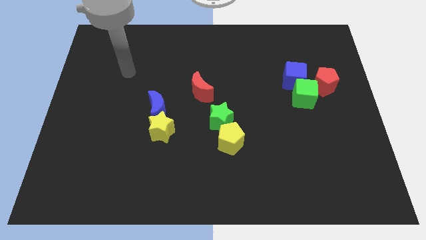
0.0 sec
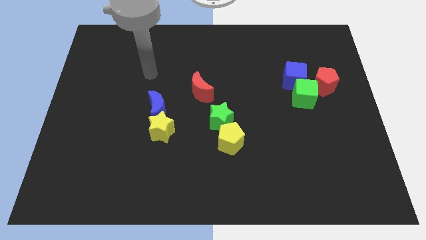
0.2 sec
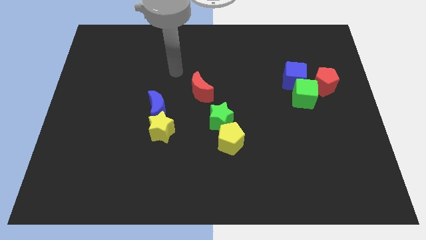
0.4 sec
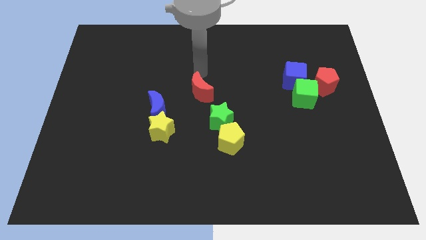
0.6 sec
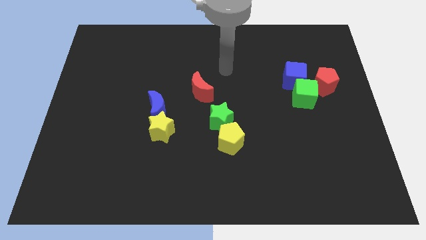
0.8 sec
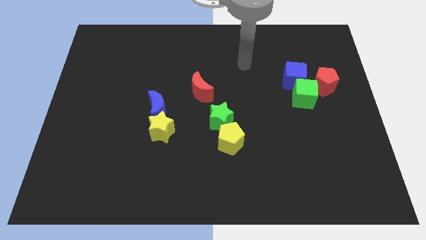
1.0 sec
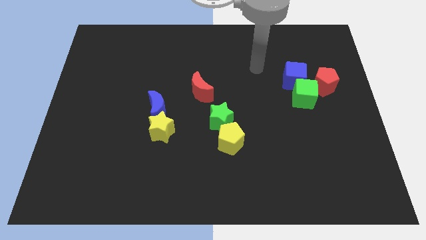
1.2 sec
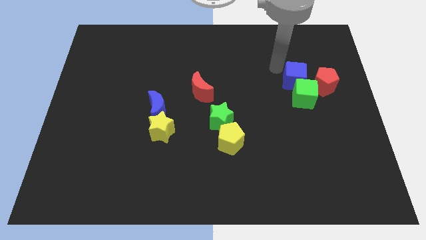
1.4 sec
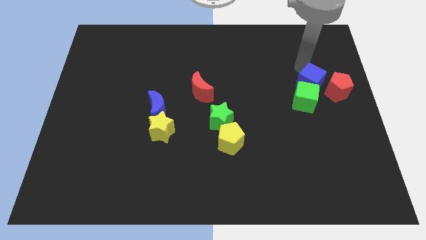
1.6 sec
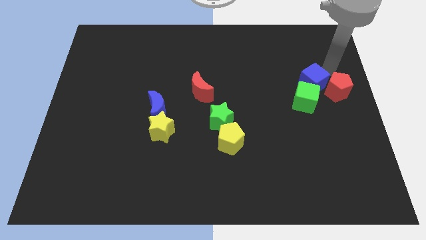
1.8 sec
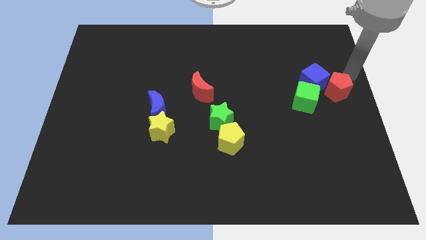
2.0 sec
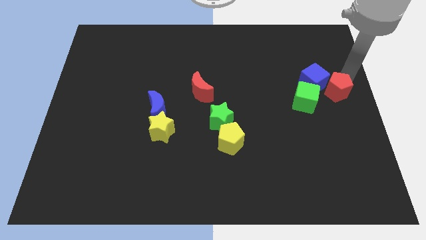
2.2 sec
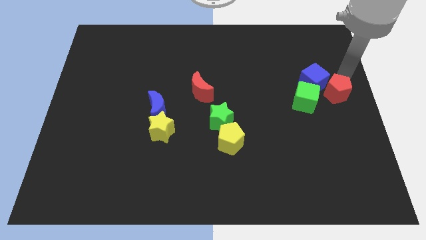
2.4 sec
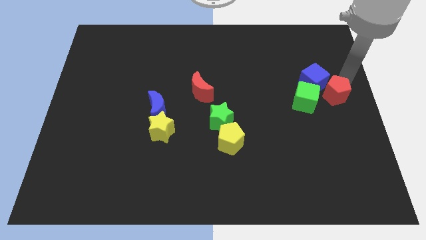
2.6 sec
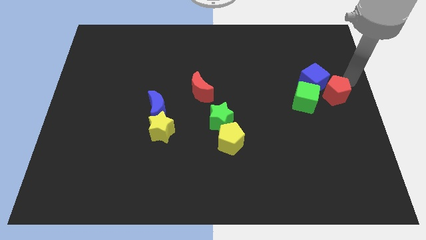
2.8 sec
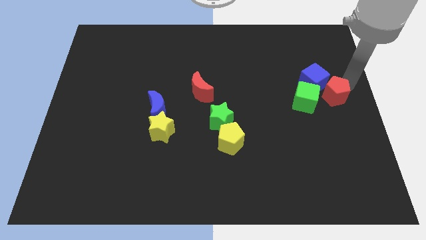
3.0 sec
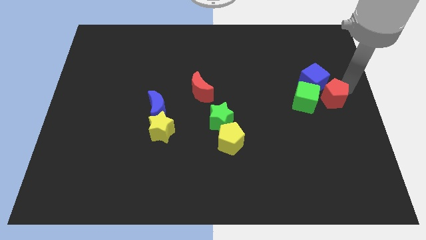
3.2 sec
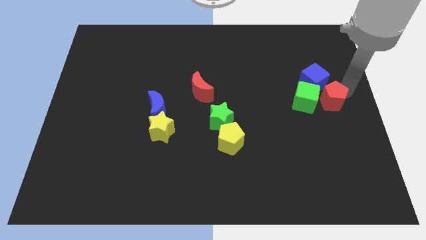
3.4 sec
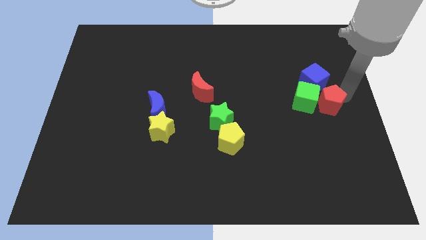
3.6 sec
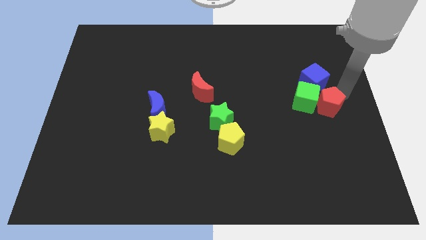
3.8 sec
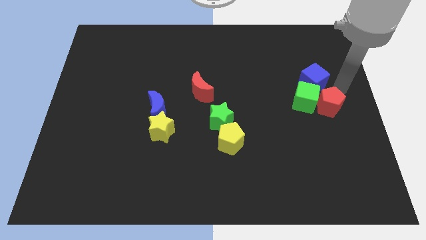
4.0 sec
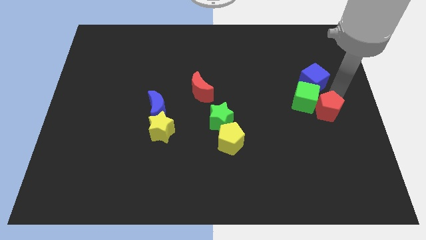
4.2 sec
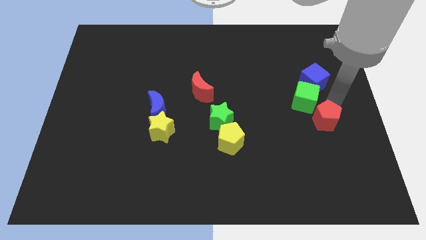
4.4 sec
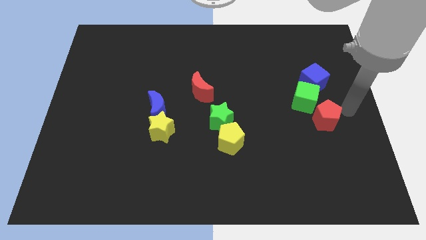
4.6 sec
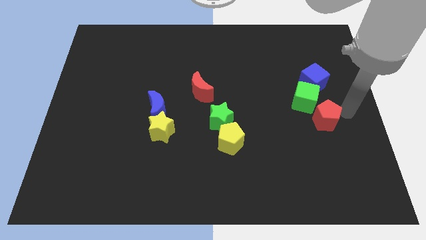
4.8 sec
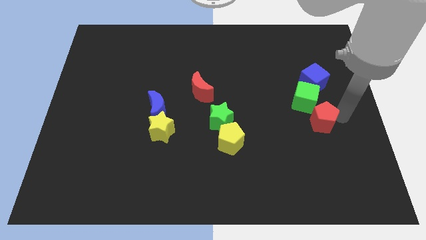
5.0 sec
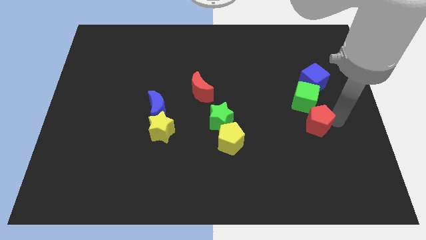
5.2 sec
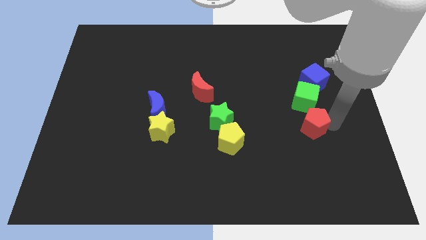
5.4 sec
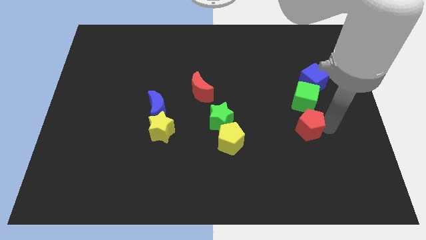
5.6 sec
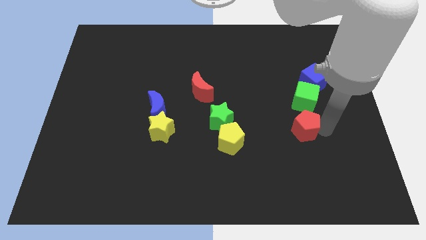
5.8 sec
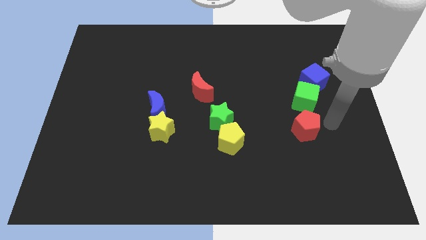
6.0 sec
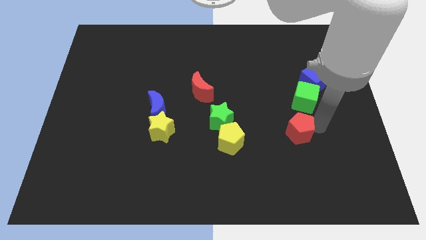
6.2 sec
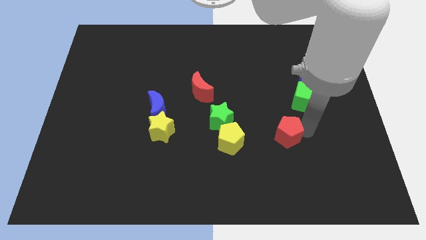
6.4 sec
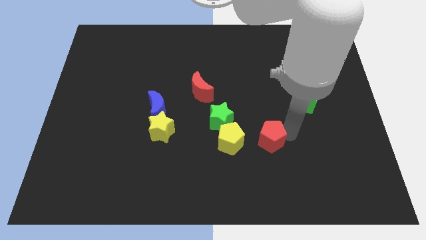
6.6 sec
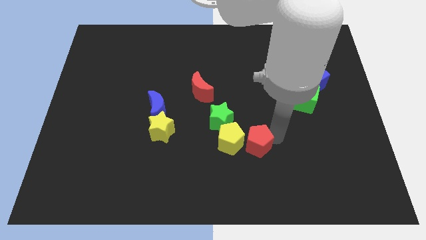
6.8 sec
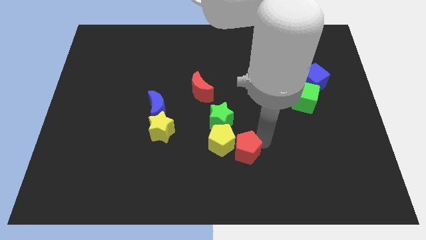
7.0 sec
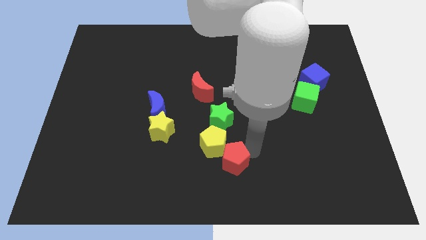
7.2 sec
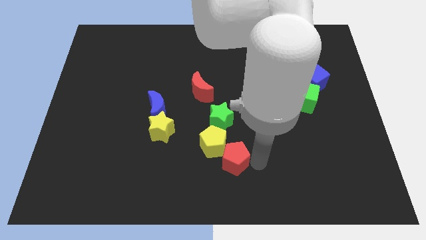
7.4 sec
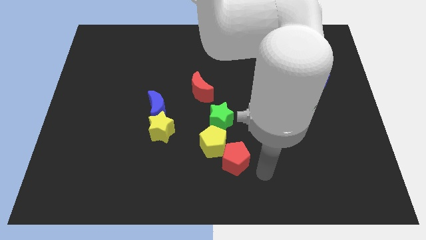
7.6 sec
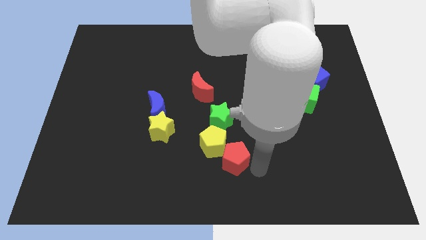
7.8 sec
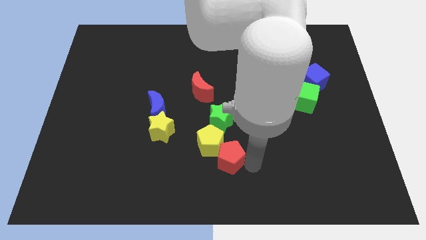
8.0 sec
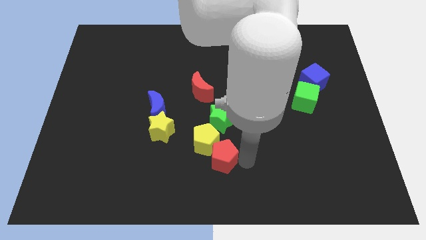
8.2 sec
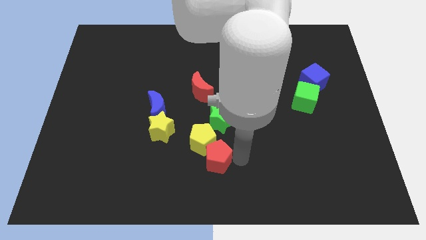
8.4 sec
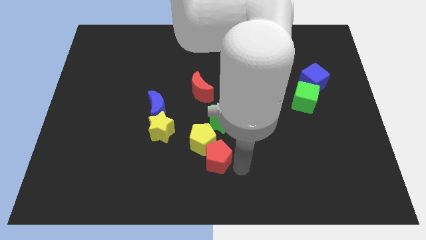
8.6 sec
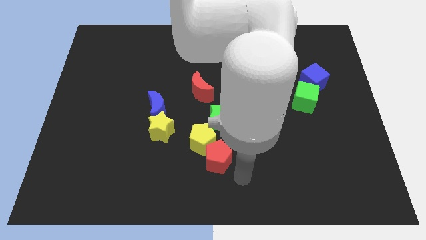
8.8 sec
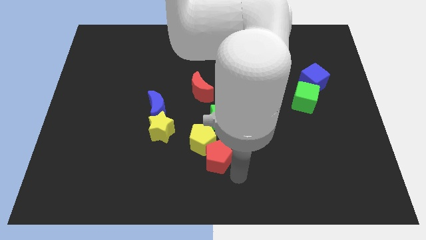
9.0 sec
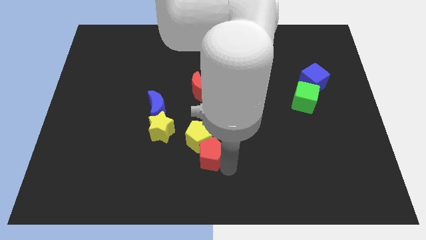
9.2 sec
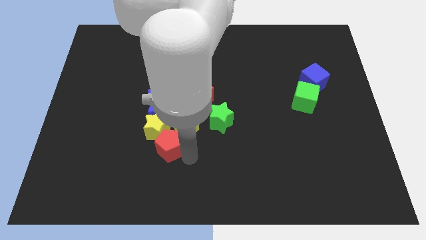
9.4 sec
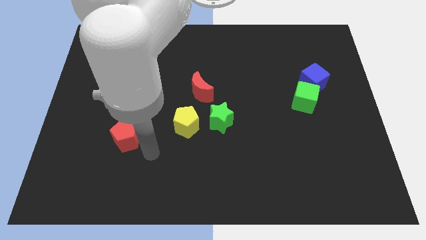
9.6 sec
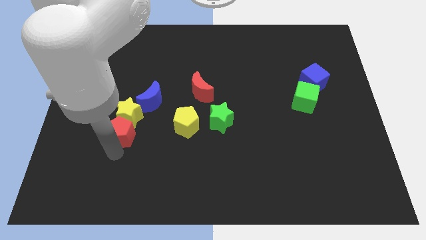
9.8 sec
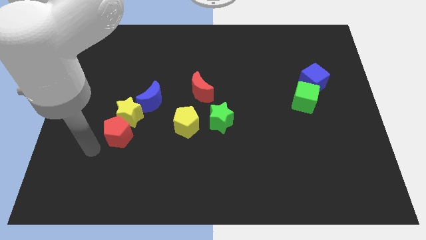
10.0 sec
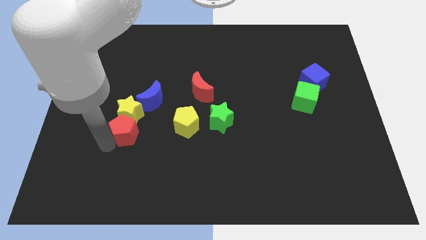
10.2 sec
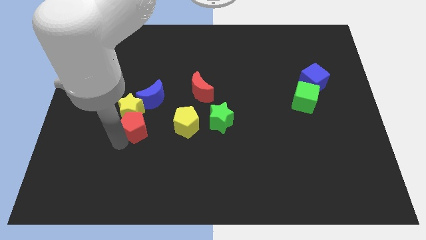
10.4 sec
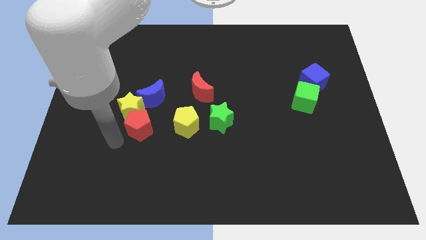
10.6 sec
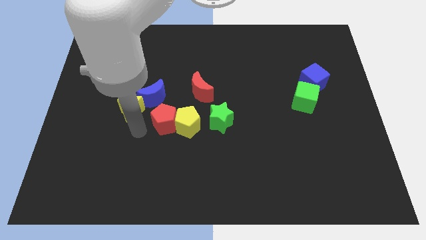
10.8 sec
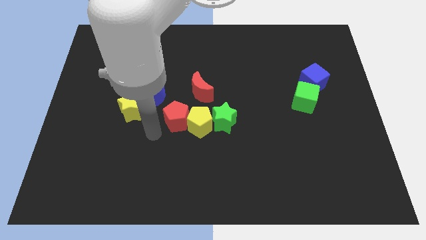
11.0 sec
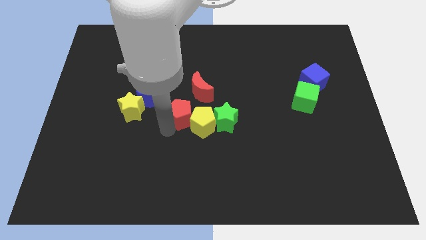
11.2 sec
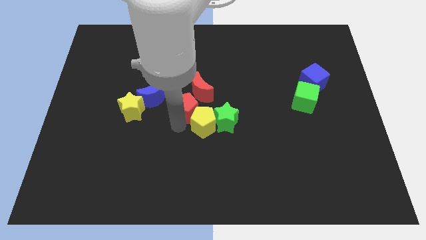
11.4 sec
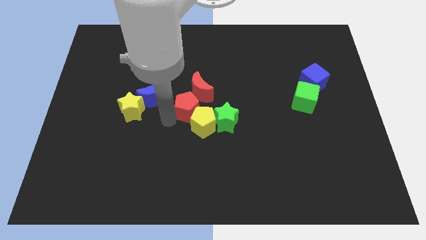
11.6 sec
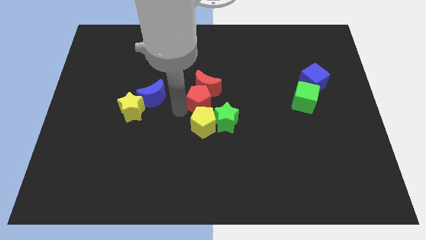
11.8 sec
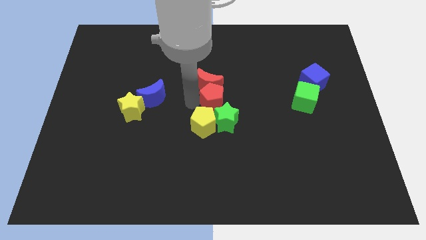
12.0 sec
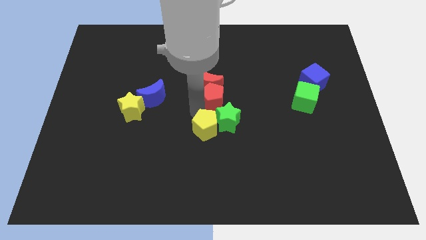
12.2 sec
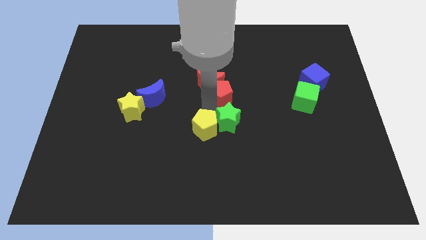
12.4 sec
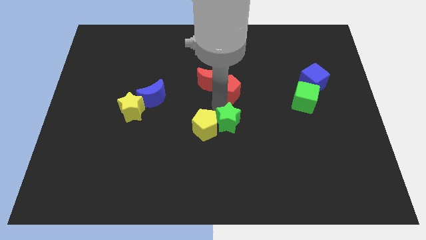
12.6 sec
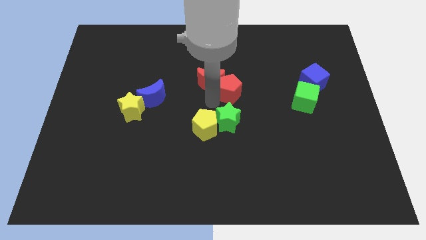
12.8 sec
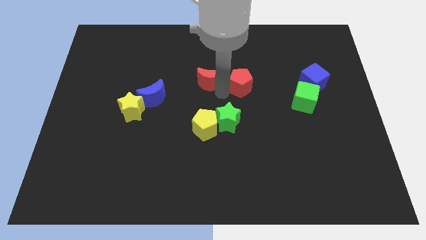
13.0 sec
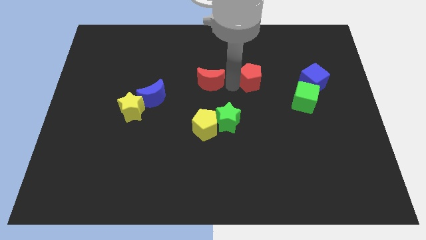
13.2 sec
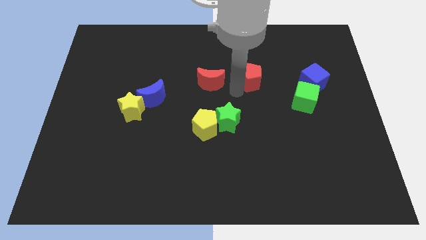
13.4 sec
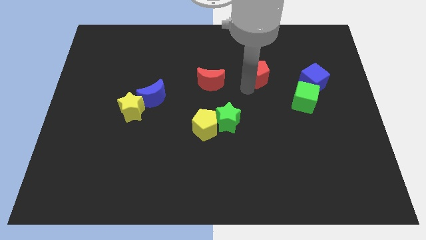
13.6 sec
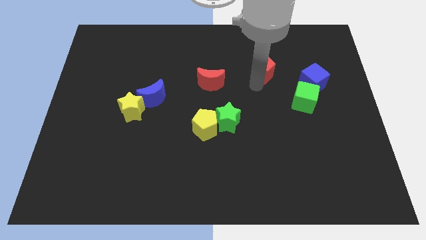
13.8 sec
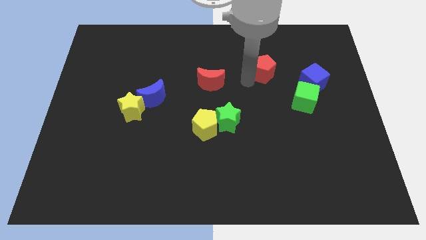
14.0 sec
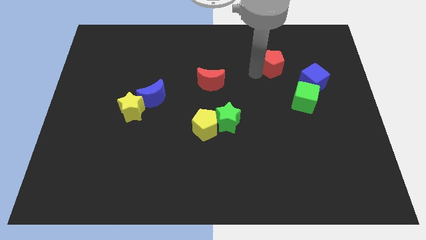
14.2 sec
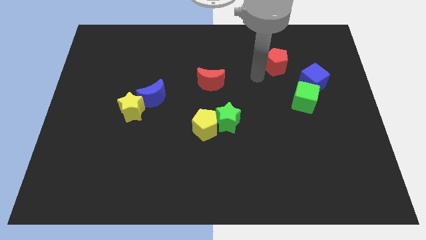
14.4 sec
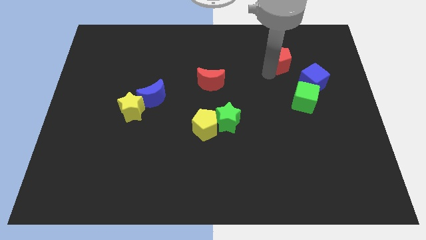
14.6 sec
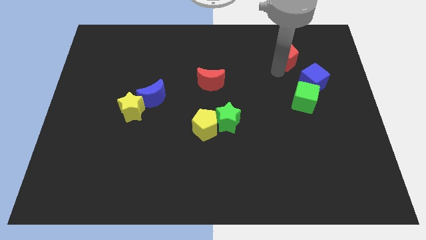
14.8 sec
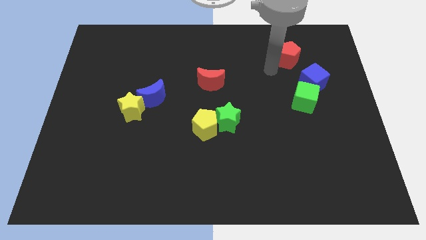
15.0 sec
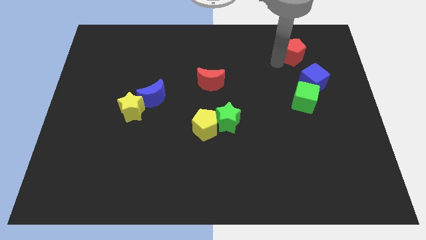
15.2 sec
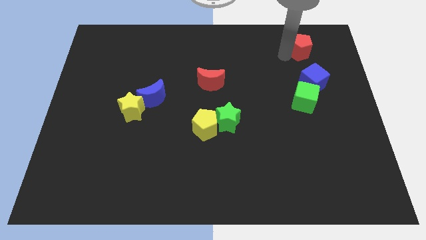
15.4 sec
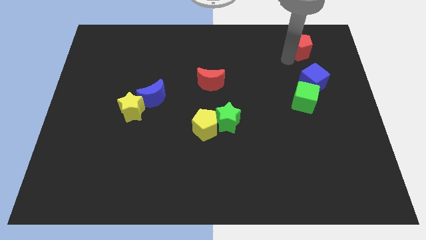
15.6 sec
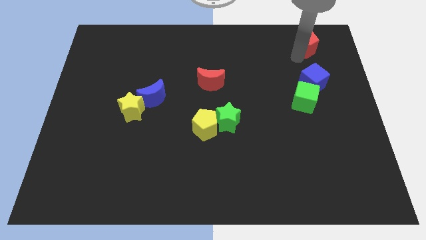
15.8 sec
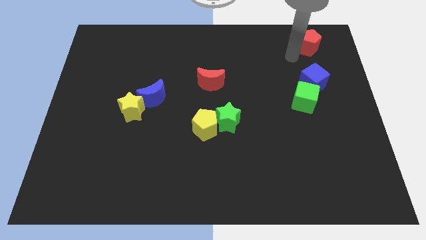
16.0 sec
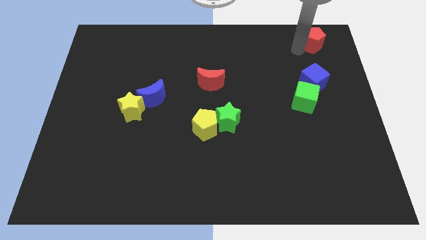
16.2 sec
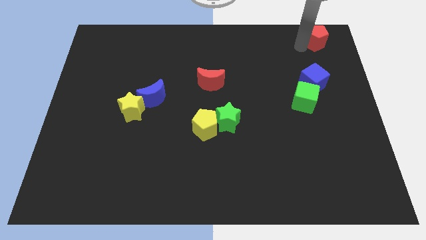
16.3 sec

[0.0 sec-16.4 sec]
slide the red pentagon to the upper right corner
